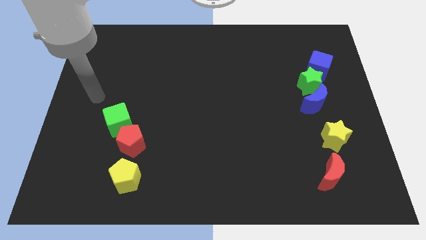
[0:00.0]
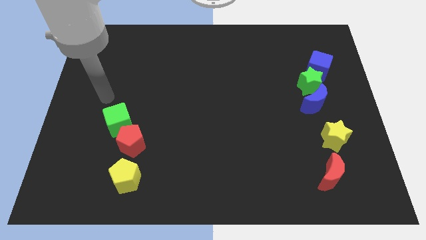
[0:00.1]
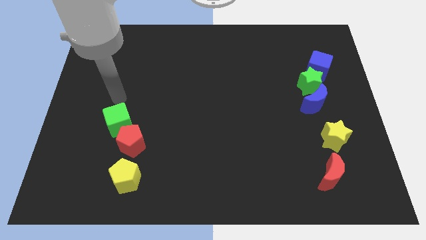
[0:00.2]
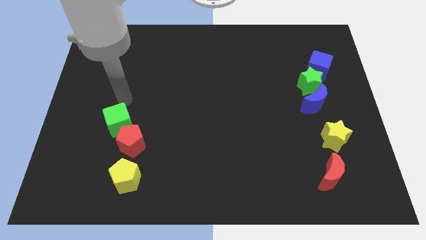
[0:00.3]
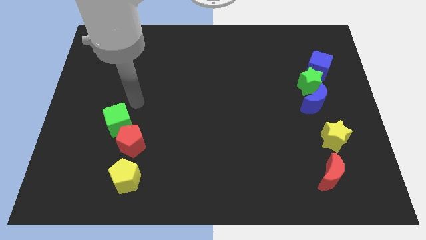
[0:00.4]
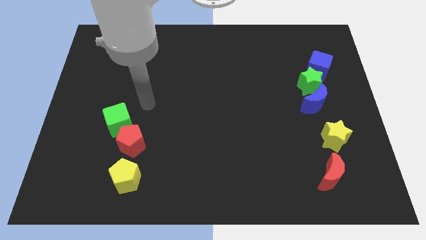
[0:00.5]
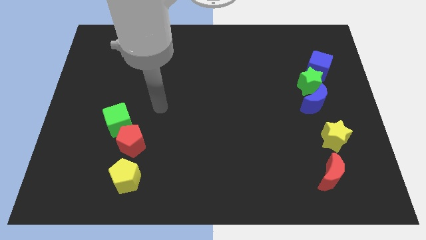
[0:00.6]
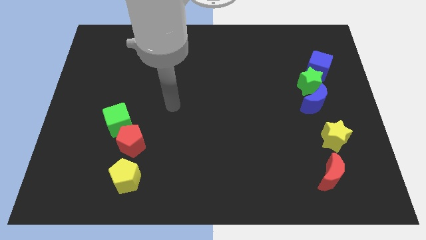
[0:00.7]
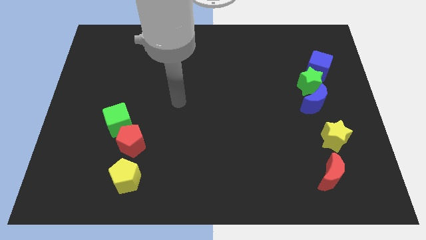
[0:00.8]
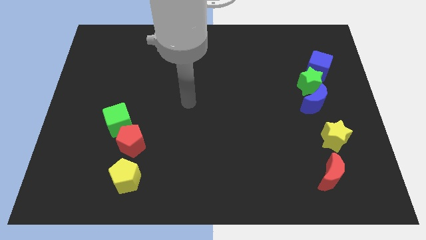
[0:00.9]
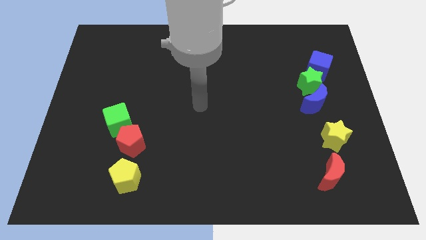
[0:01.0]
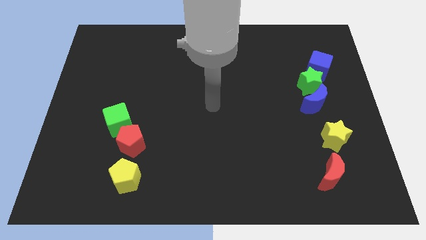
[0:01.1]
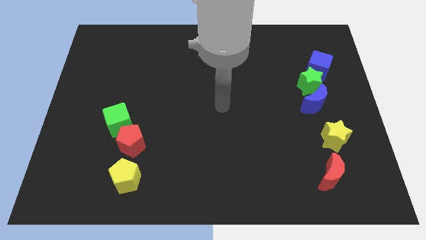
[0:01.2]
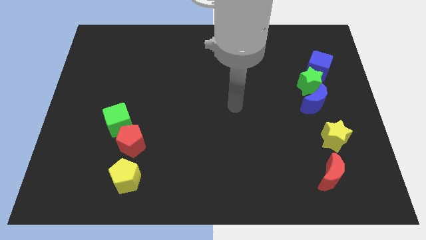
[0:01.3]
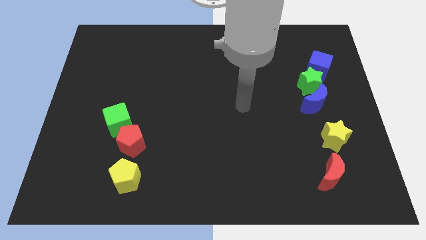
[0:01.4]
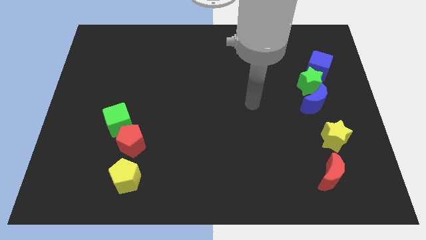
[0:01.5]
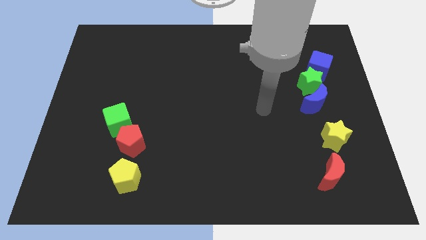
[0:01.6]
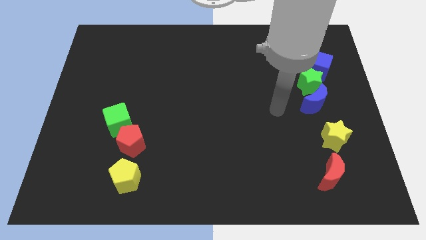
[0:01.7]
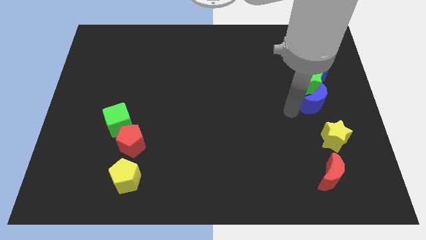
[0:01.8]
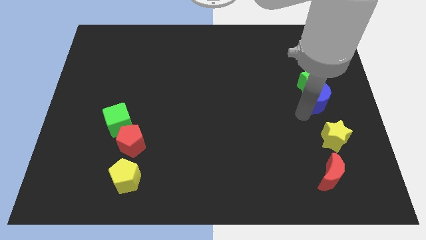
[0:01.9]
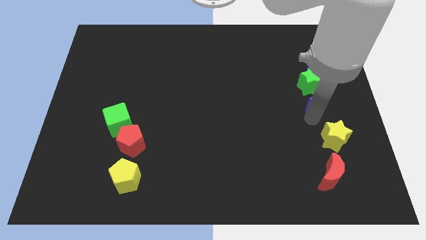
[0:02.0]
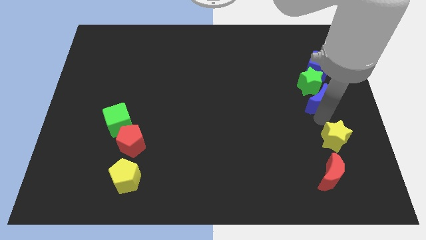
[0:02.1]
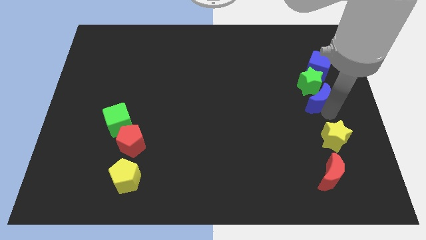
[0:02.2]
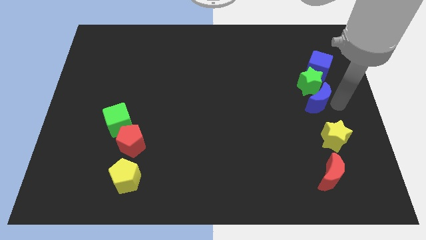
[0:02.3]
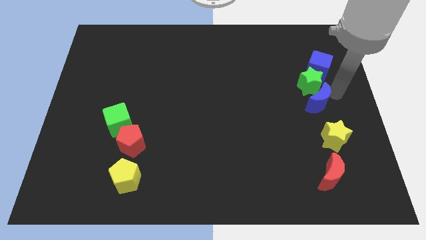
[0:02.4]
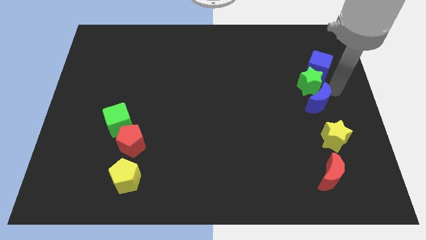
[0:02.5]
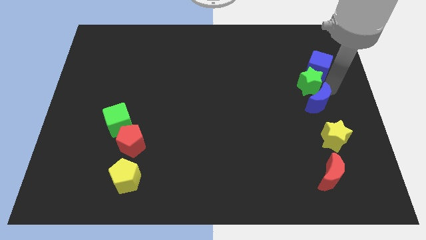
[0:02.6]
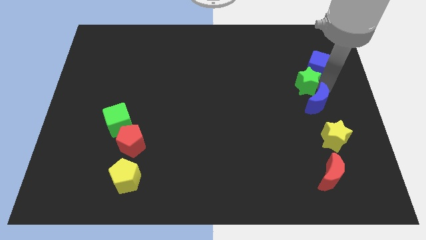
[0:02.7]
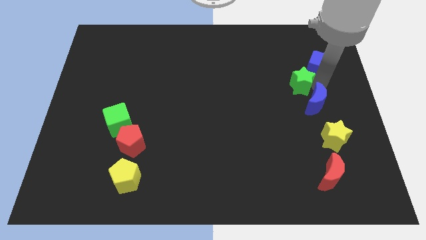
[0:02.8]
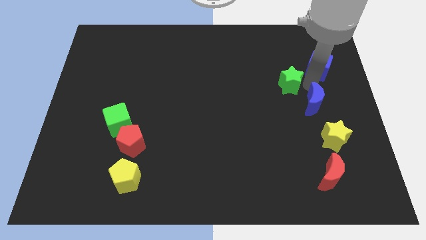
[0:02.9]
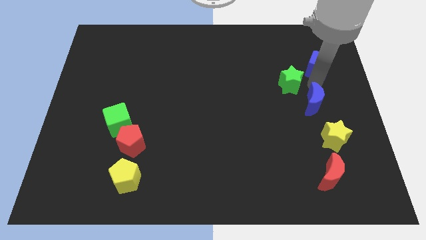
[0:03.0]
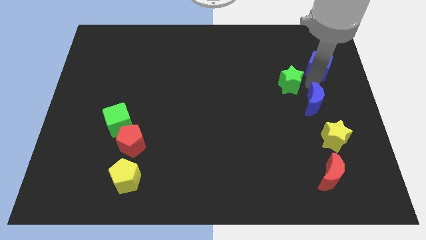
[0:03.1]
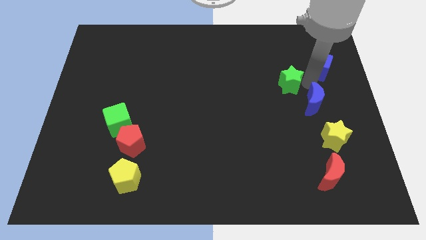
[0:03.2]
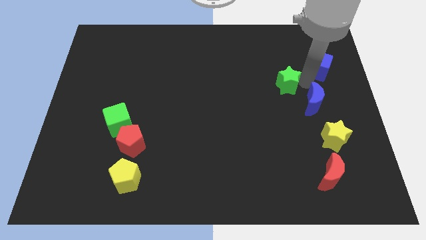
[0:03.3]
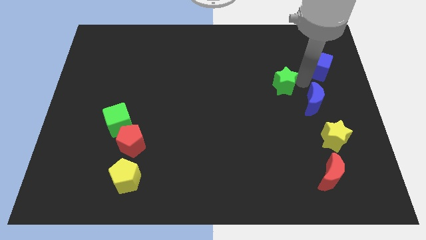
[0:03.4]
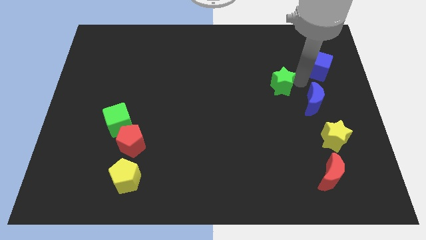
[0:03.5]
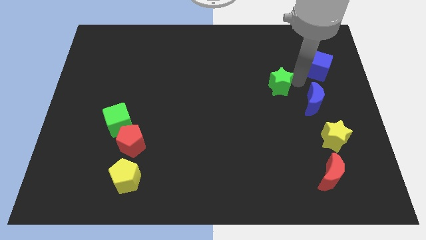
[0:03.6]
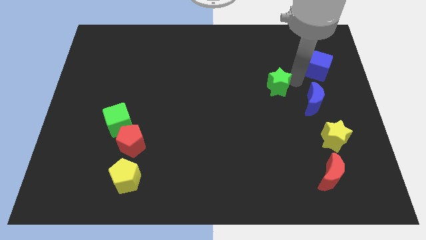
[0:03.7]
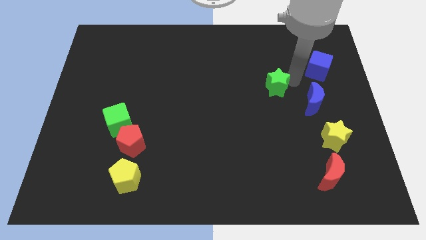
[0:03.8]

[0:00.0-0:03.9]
move the green star away from the blue moon and blue cube

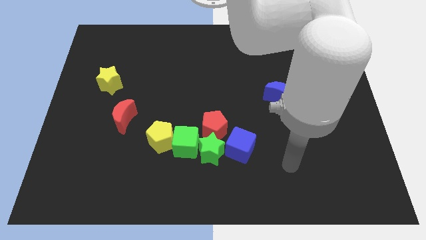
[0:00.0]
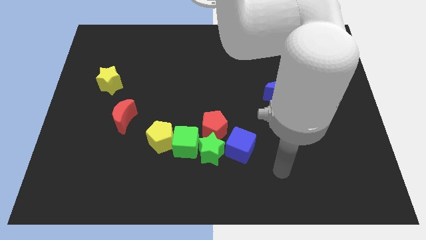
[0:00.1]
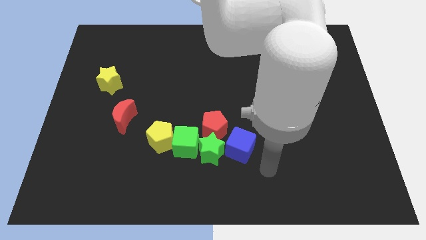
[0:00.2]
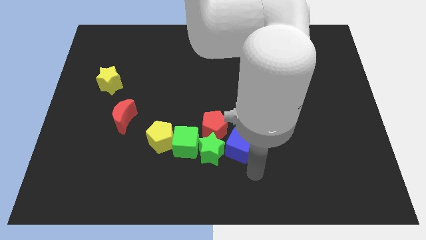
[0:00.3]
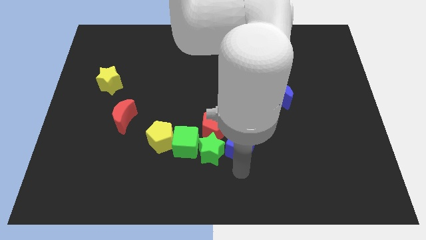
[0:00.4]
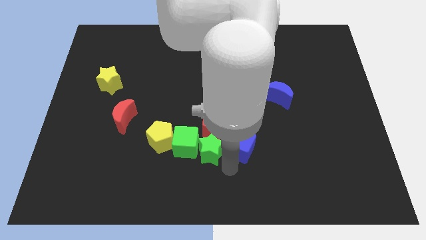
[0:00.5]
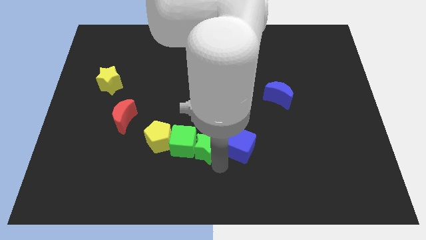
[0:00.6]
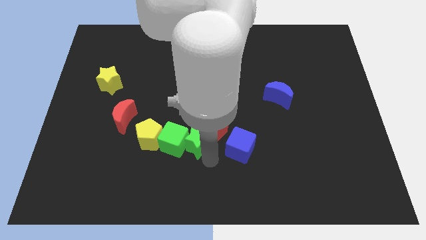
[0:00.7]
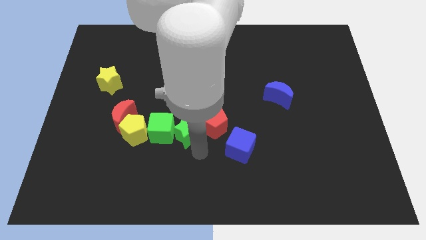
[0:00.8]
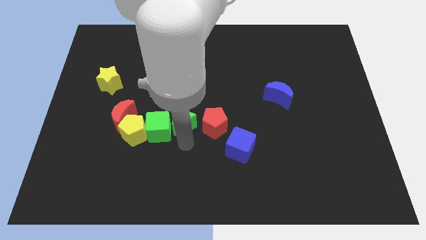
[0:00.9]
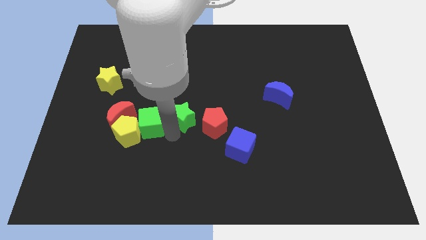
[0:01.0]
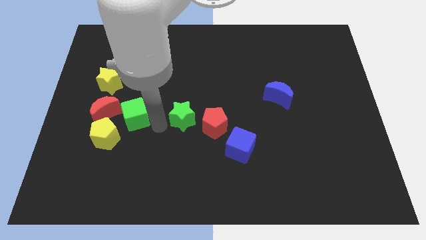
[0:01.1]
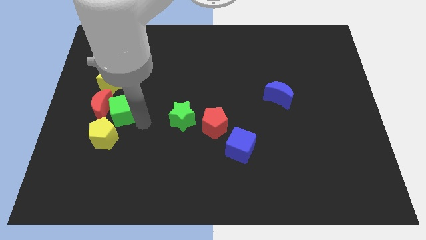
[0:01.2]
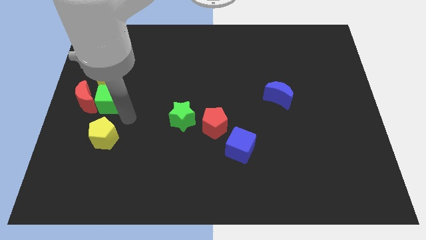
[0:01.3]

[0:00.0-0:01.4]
pull the yellow pentagon apart from the green cube

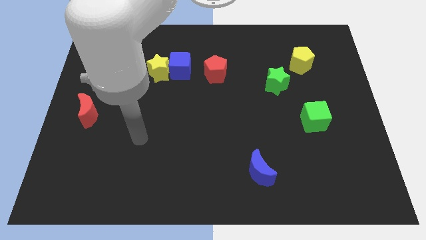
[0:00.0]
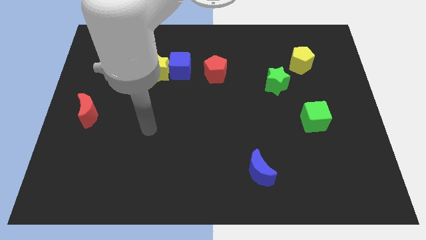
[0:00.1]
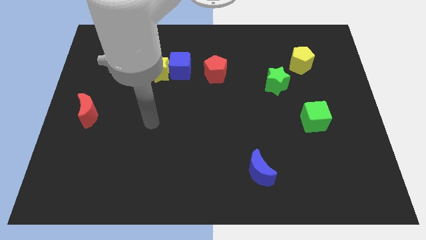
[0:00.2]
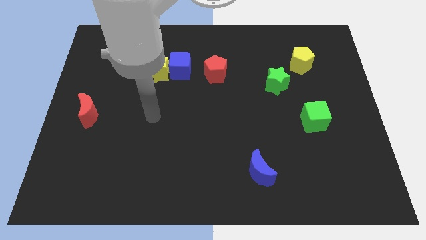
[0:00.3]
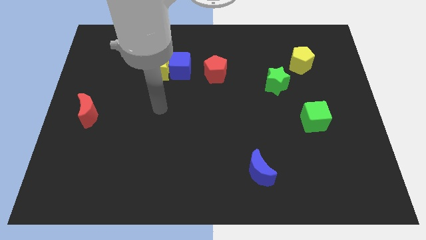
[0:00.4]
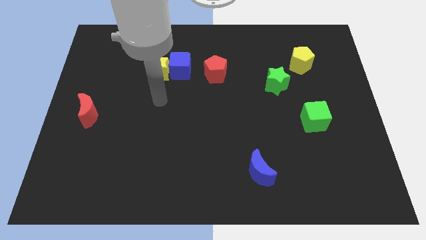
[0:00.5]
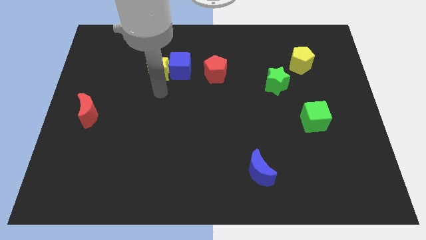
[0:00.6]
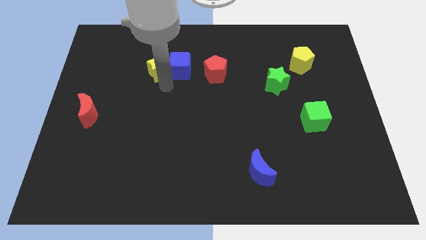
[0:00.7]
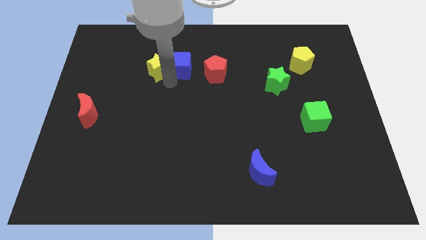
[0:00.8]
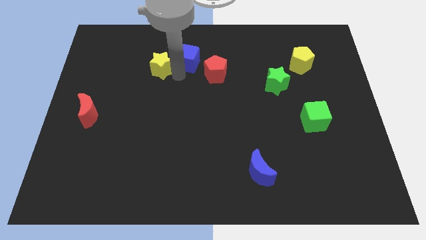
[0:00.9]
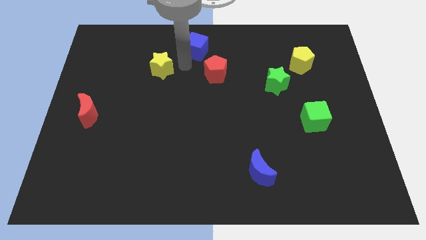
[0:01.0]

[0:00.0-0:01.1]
pull the yellow star apart from the blue cube

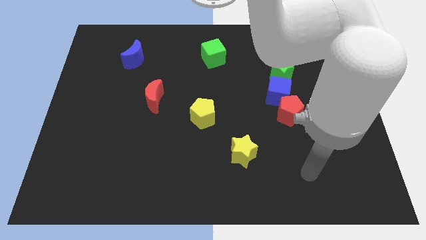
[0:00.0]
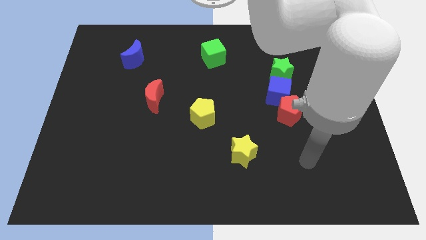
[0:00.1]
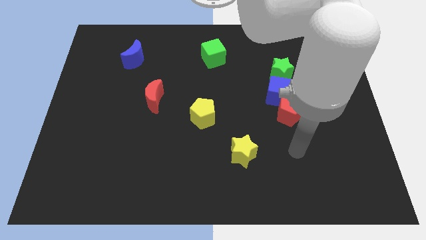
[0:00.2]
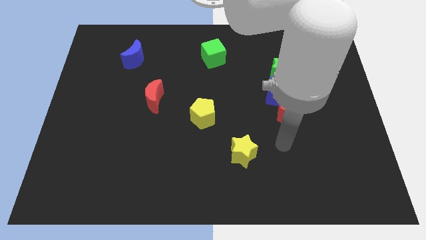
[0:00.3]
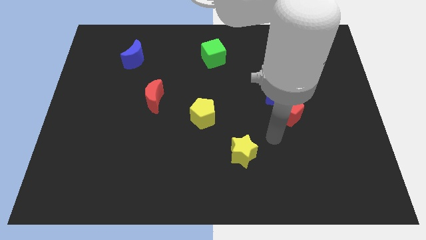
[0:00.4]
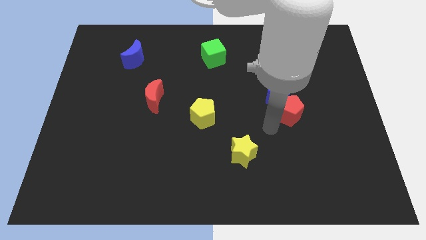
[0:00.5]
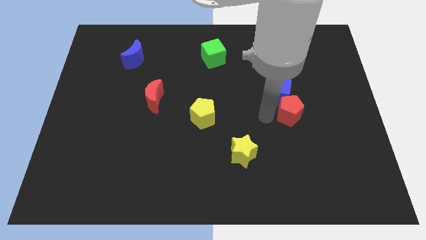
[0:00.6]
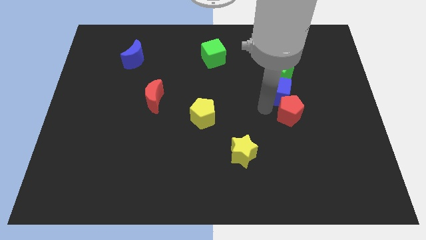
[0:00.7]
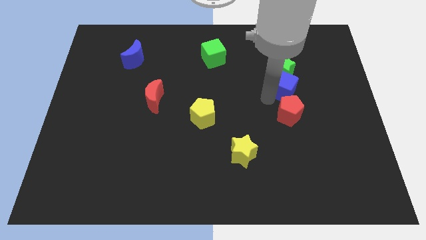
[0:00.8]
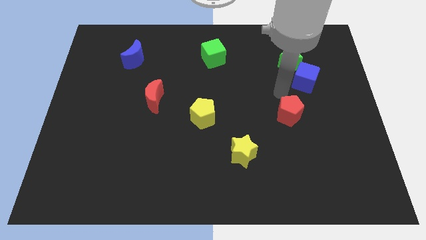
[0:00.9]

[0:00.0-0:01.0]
separate the red pentagon from the blue cube

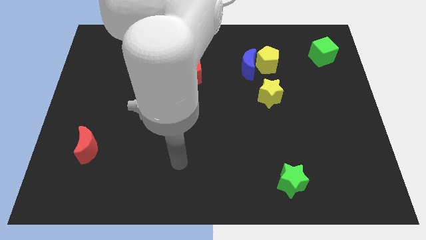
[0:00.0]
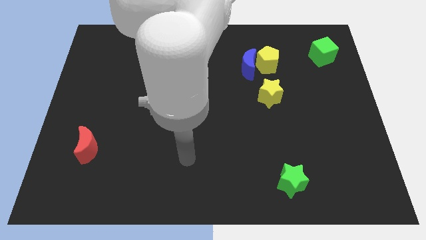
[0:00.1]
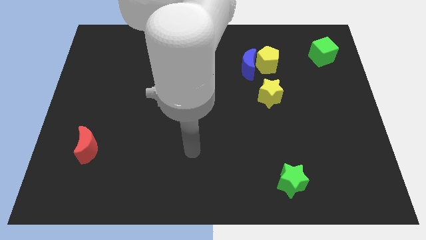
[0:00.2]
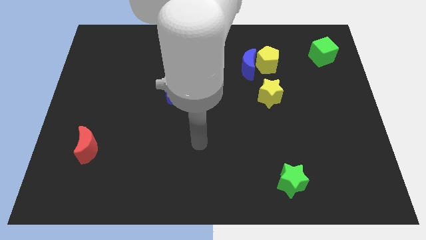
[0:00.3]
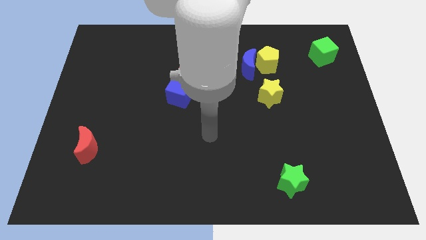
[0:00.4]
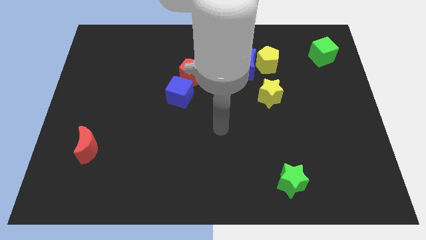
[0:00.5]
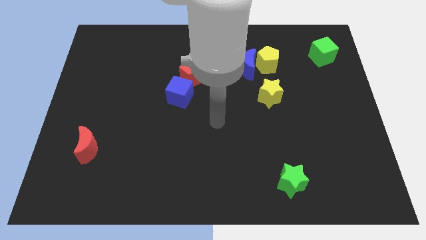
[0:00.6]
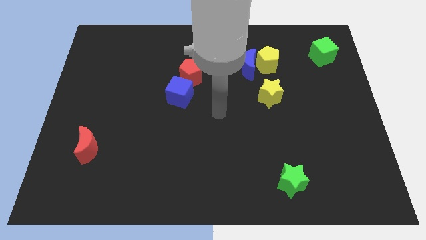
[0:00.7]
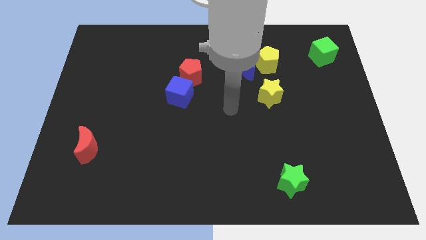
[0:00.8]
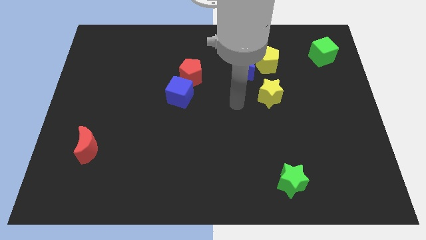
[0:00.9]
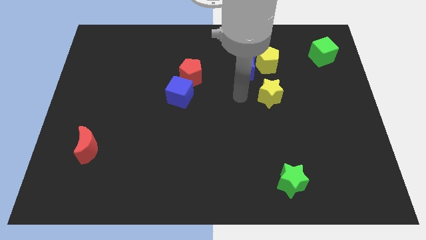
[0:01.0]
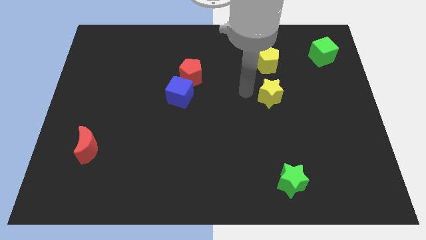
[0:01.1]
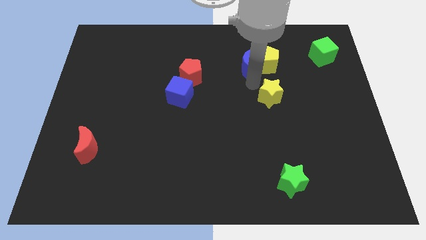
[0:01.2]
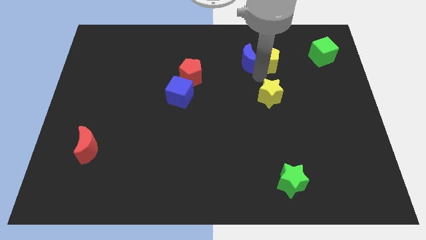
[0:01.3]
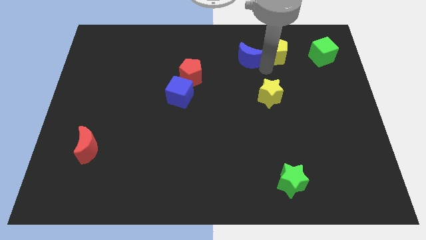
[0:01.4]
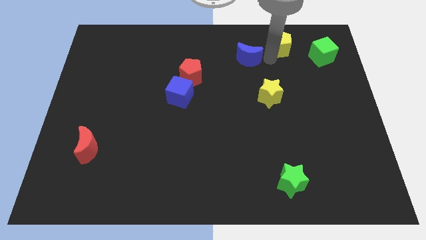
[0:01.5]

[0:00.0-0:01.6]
separate the blue moon from the yellow pentagon

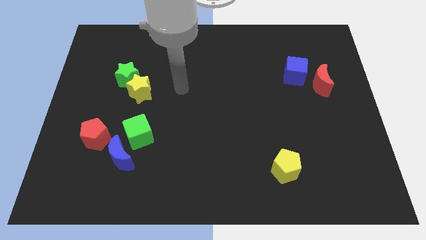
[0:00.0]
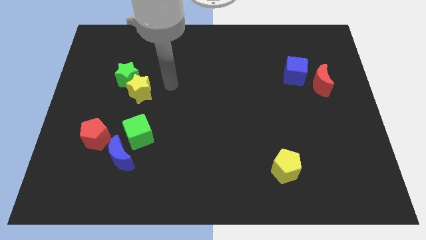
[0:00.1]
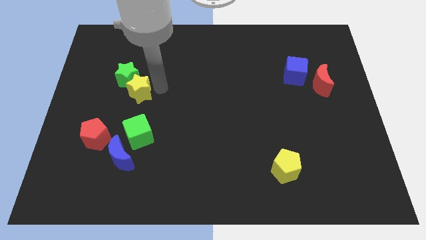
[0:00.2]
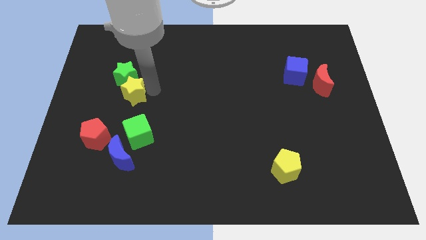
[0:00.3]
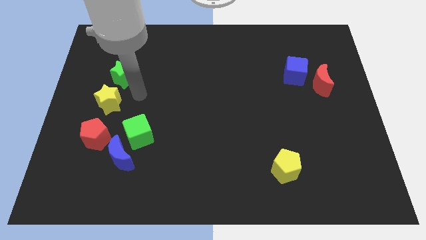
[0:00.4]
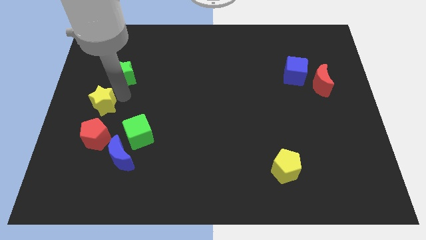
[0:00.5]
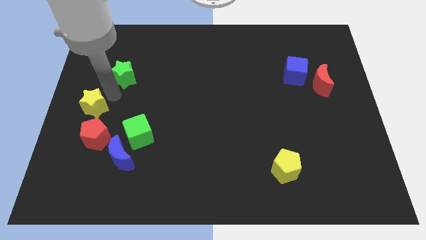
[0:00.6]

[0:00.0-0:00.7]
pull the green star apart from the yellow star
